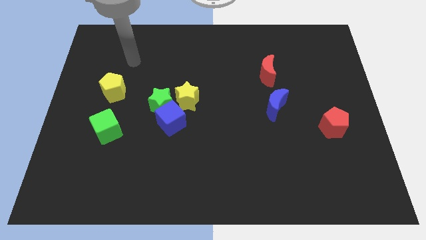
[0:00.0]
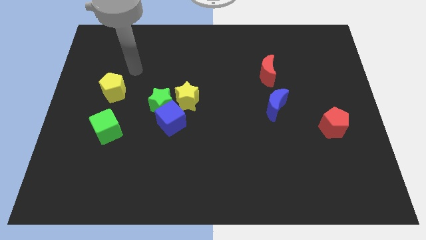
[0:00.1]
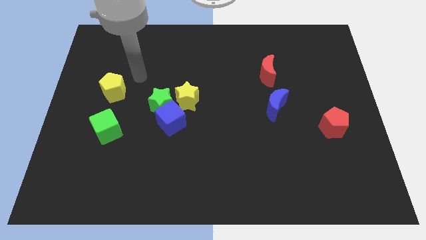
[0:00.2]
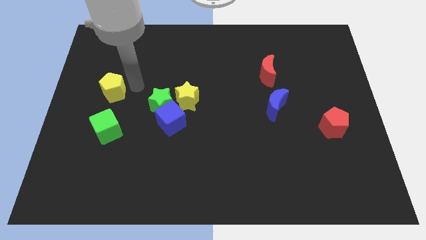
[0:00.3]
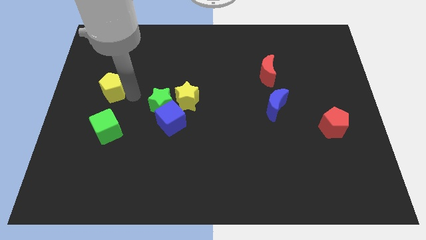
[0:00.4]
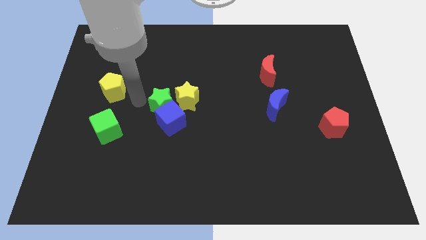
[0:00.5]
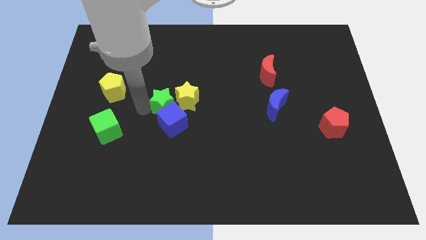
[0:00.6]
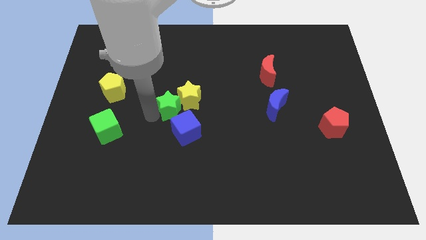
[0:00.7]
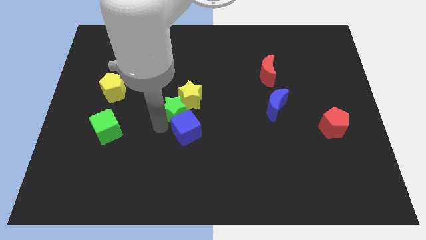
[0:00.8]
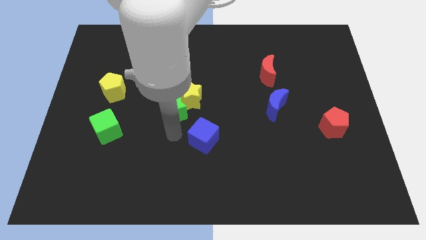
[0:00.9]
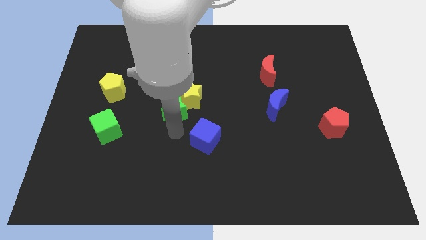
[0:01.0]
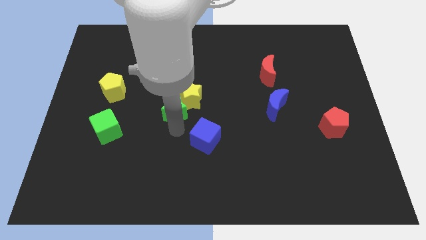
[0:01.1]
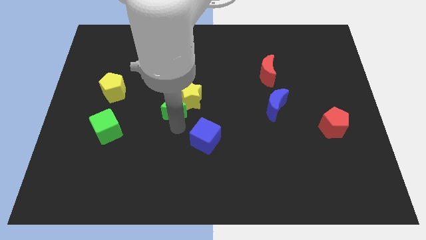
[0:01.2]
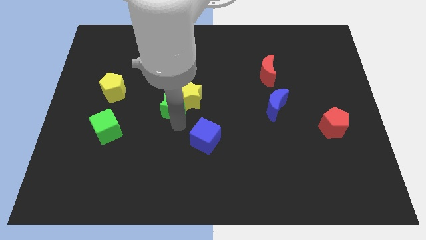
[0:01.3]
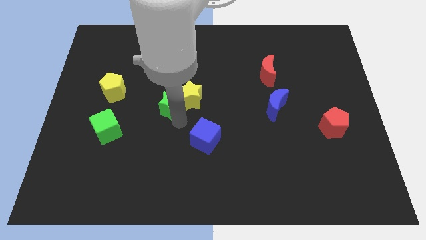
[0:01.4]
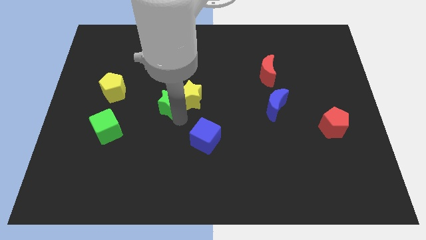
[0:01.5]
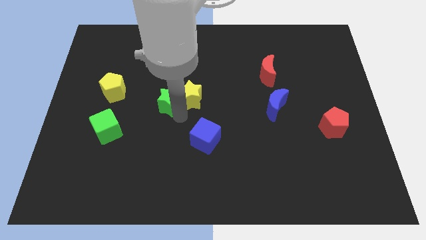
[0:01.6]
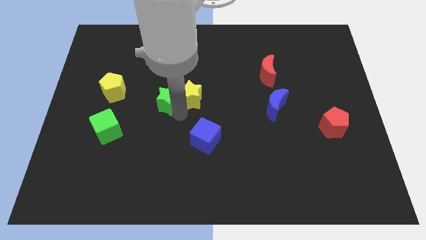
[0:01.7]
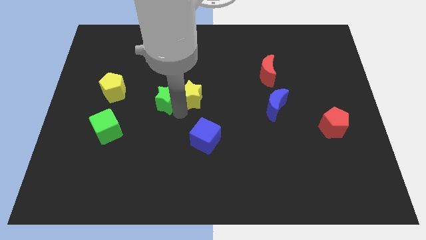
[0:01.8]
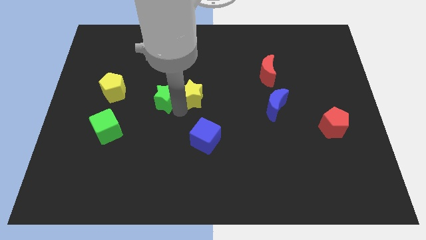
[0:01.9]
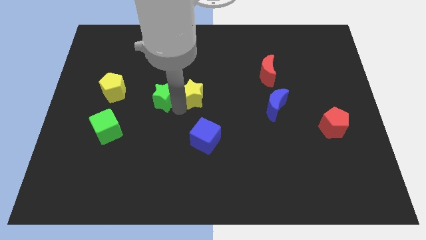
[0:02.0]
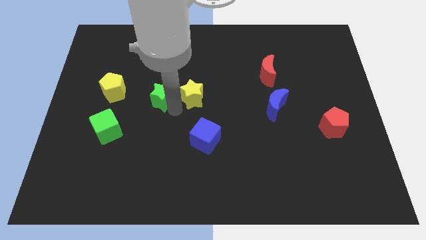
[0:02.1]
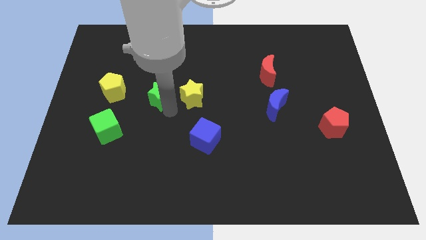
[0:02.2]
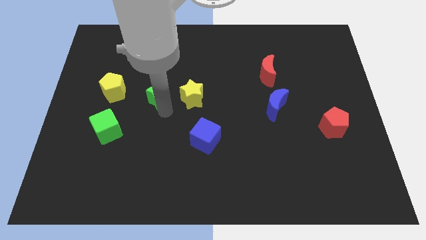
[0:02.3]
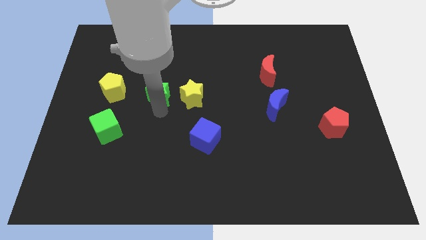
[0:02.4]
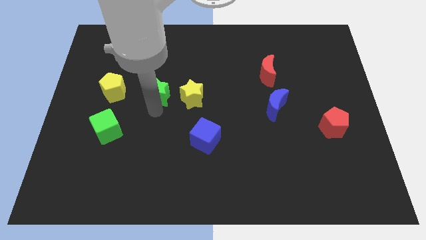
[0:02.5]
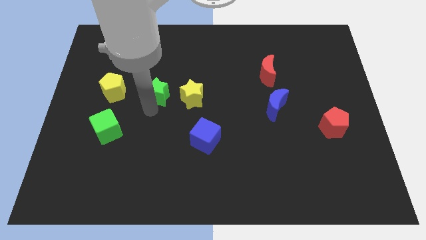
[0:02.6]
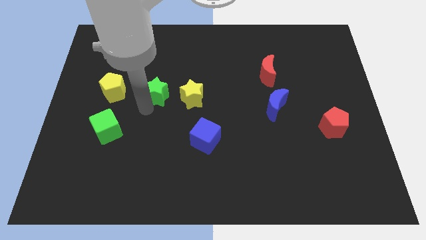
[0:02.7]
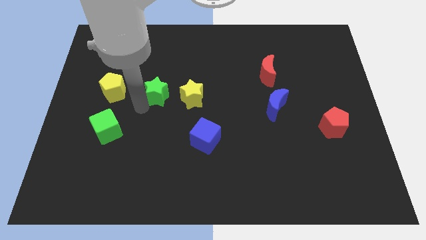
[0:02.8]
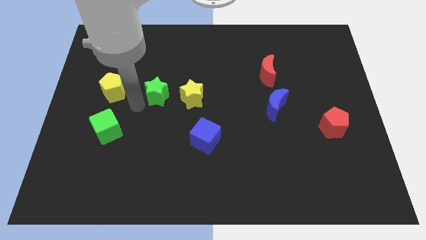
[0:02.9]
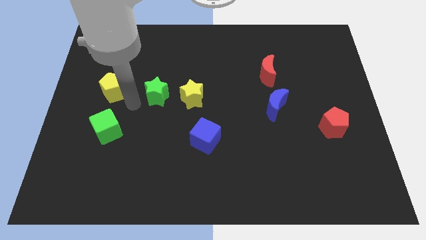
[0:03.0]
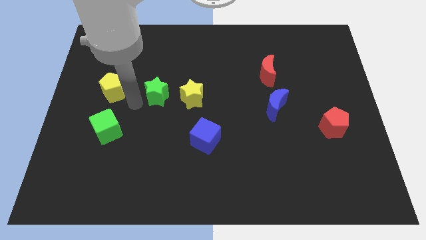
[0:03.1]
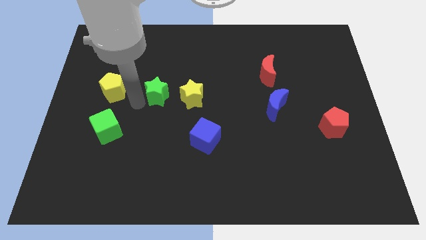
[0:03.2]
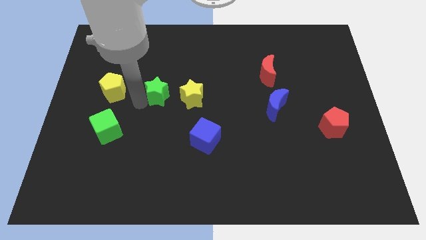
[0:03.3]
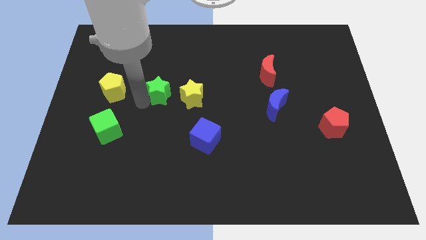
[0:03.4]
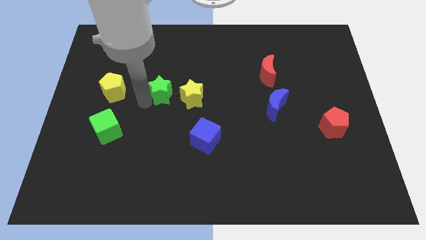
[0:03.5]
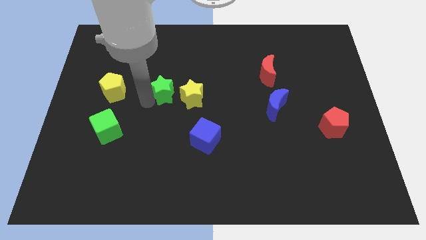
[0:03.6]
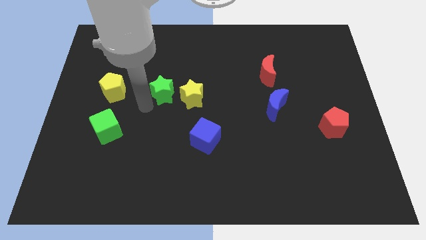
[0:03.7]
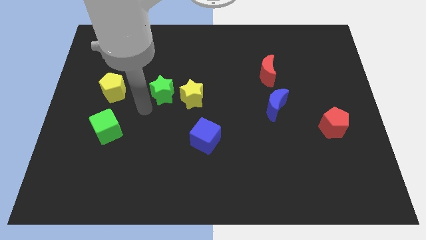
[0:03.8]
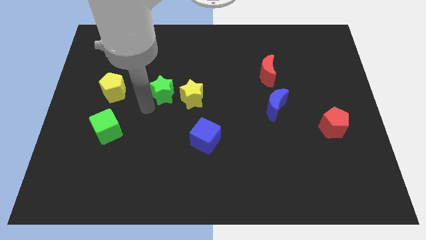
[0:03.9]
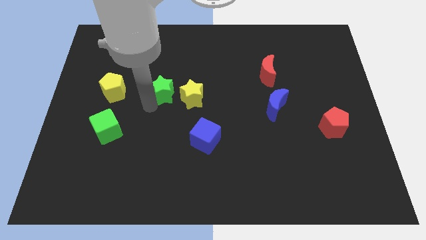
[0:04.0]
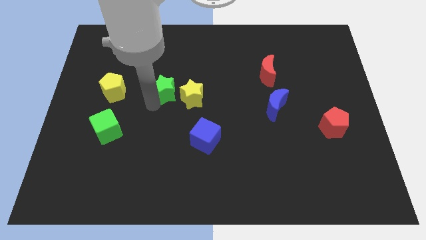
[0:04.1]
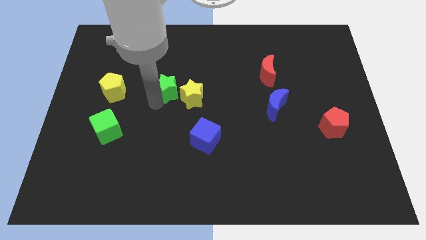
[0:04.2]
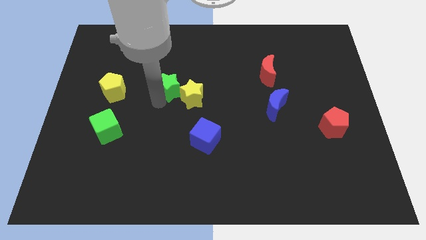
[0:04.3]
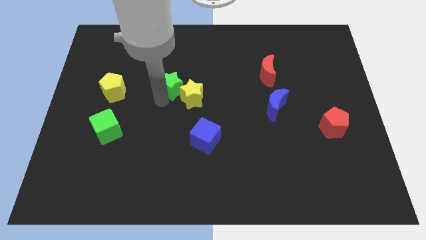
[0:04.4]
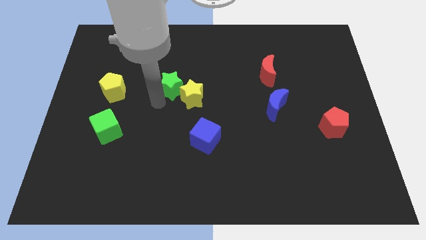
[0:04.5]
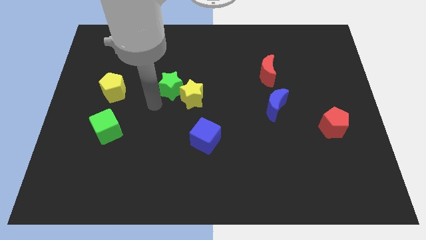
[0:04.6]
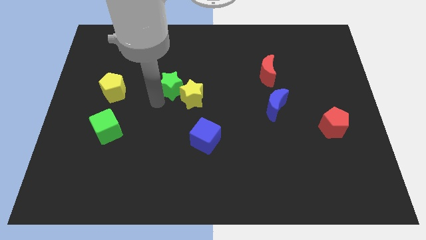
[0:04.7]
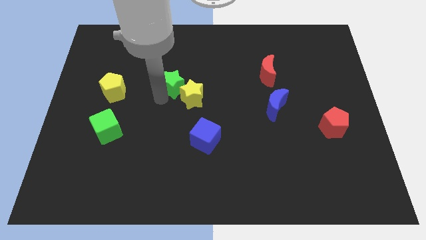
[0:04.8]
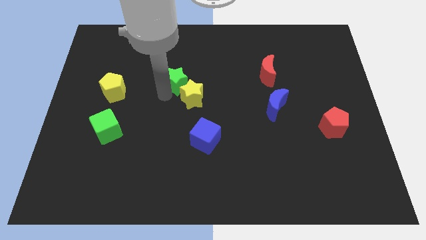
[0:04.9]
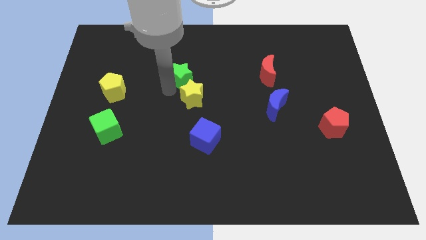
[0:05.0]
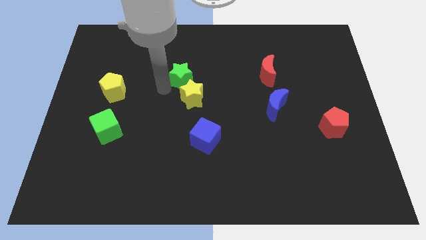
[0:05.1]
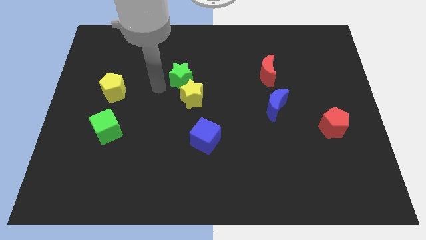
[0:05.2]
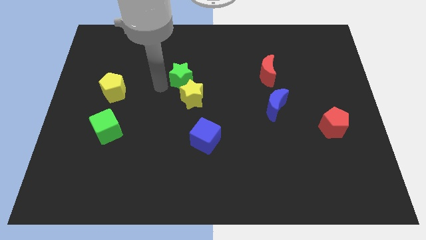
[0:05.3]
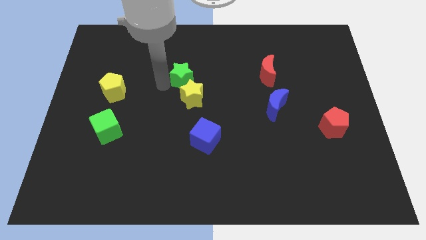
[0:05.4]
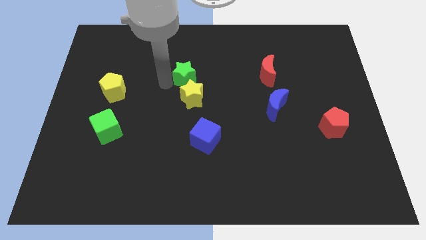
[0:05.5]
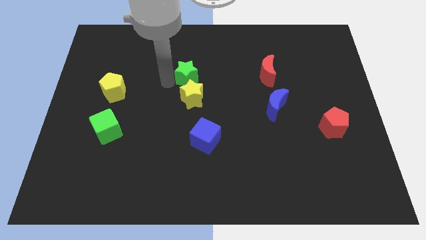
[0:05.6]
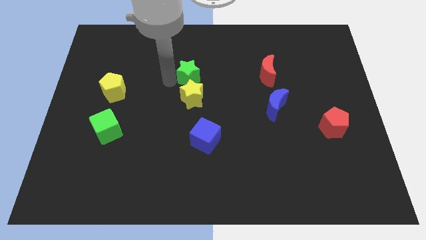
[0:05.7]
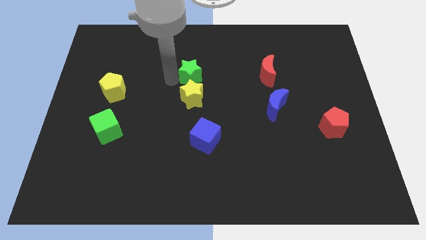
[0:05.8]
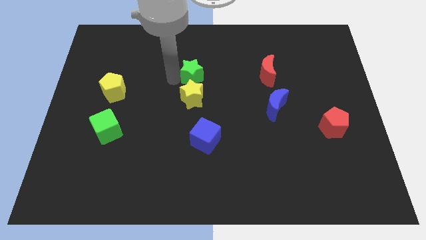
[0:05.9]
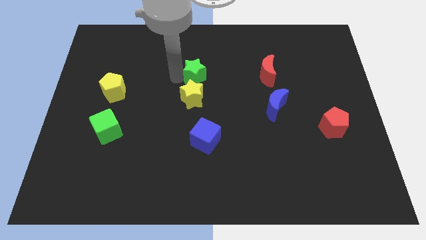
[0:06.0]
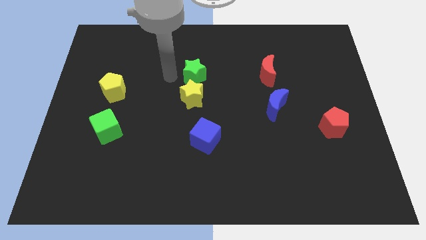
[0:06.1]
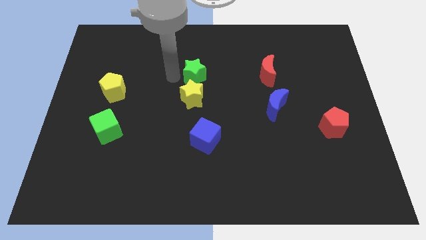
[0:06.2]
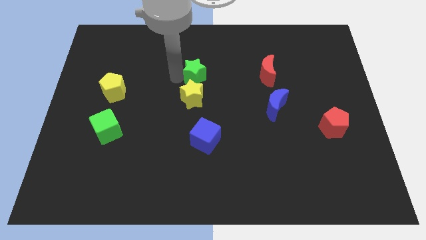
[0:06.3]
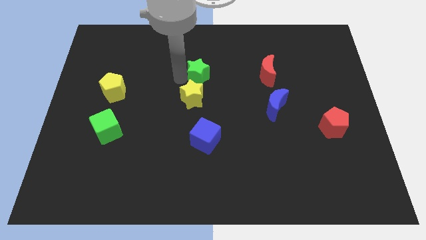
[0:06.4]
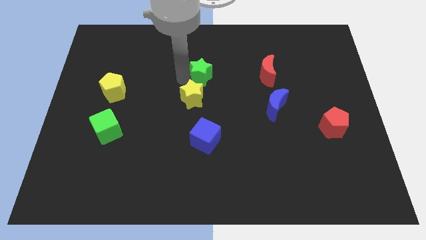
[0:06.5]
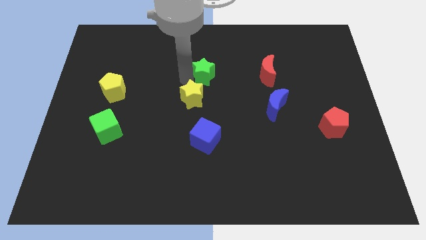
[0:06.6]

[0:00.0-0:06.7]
put the green star to the left of the red moon
